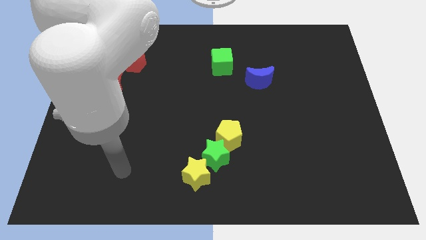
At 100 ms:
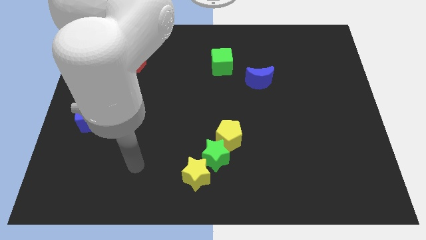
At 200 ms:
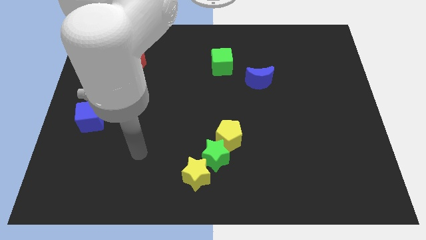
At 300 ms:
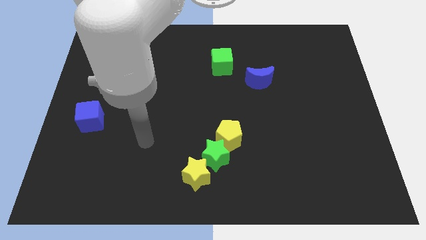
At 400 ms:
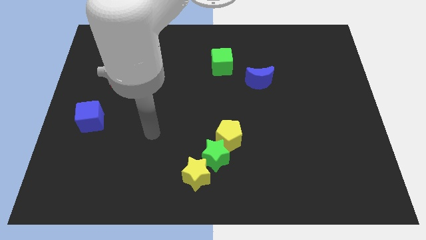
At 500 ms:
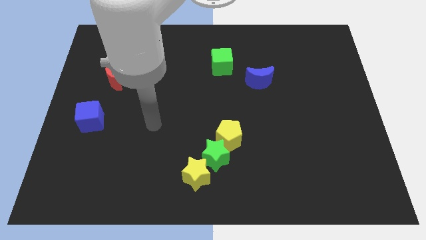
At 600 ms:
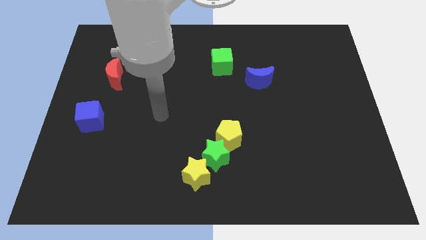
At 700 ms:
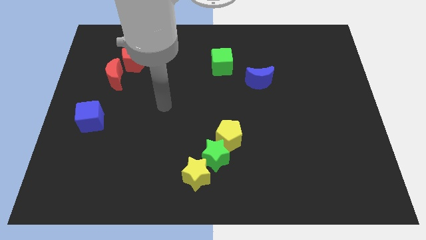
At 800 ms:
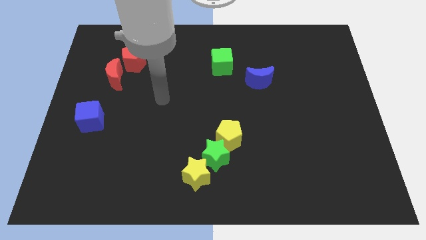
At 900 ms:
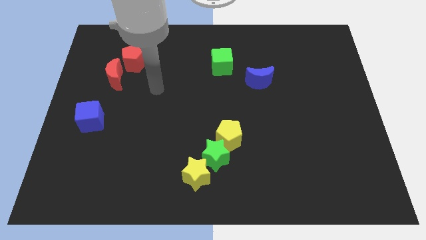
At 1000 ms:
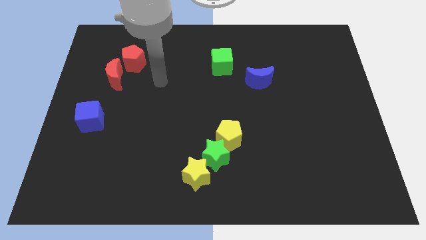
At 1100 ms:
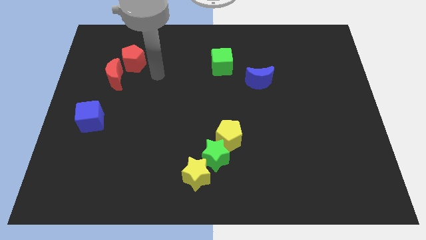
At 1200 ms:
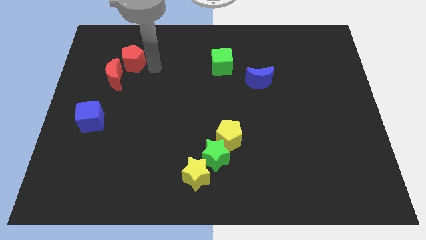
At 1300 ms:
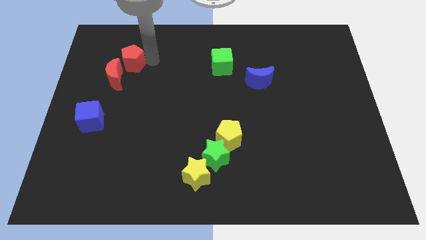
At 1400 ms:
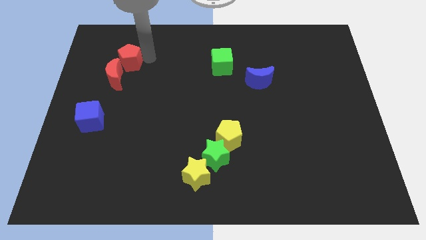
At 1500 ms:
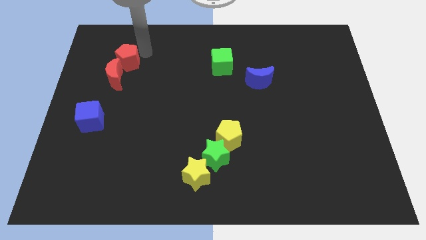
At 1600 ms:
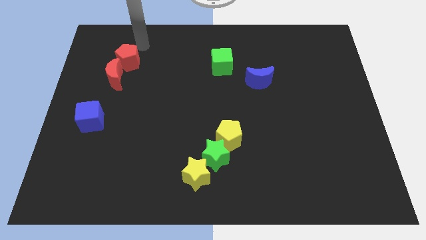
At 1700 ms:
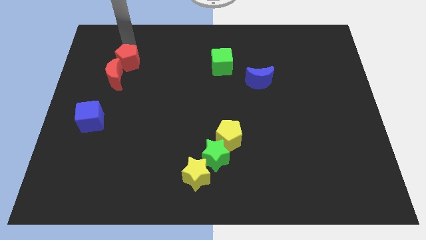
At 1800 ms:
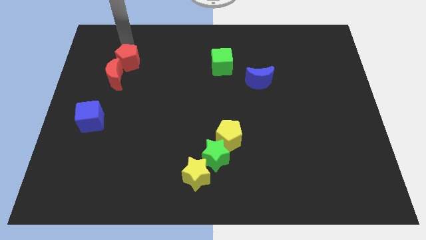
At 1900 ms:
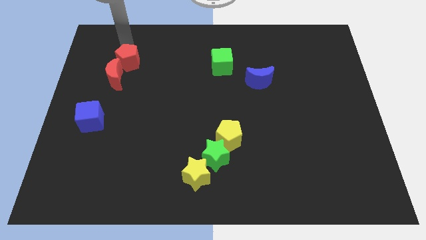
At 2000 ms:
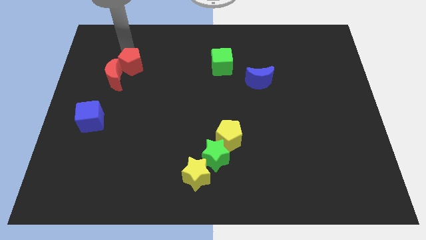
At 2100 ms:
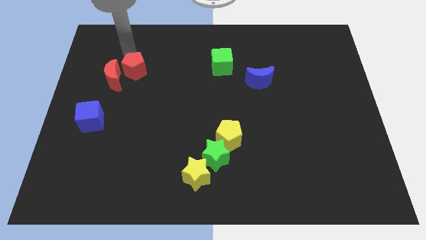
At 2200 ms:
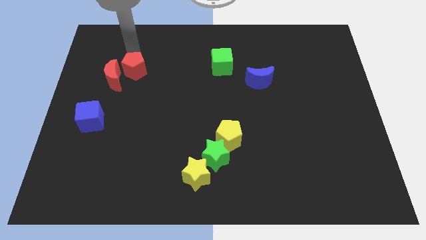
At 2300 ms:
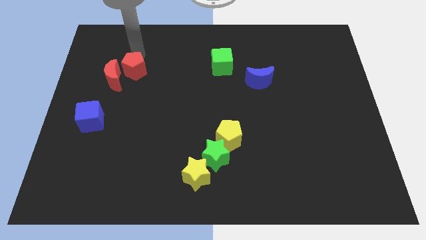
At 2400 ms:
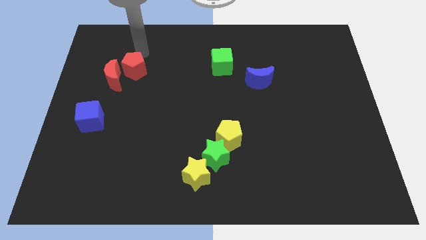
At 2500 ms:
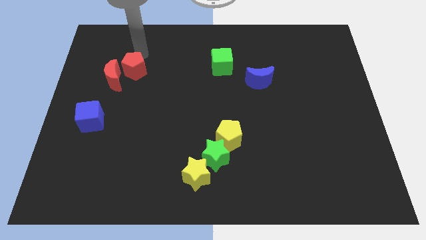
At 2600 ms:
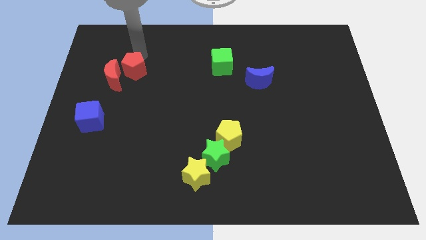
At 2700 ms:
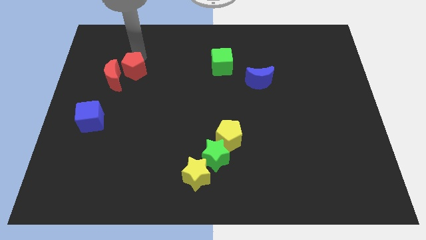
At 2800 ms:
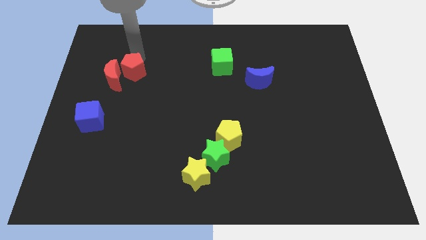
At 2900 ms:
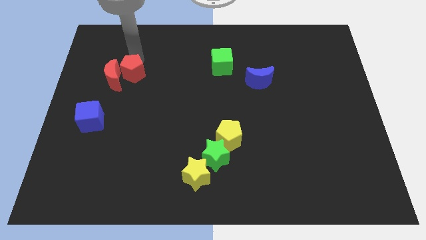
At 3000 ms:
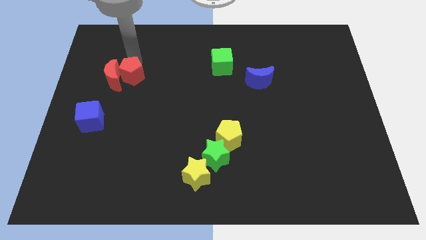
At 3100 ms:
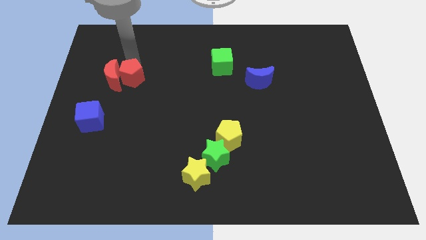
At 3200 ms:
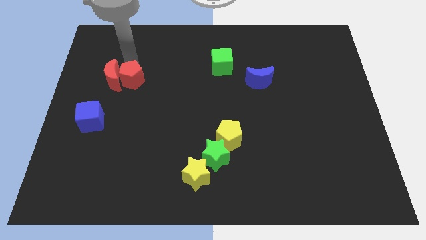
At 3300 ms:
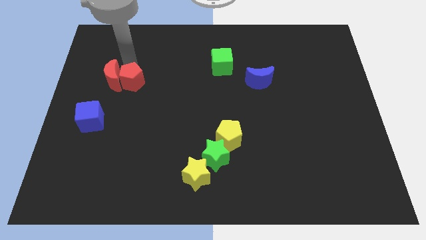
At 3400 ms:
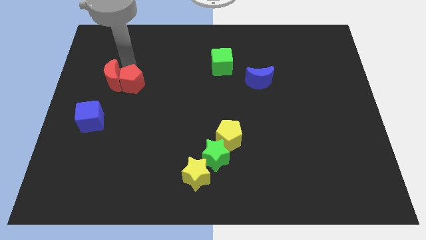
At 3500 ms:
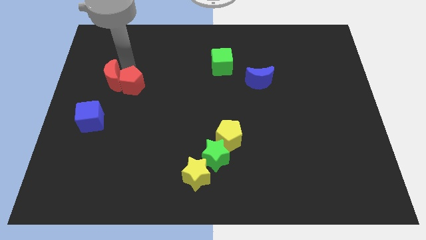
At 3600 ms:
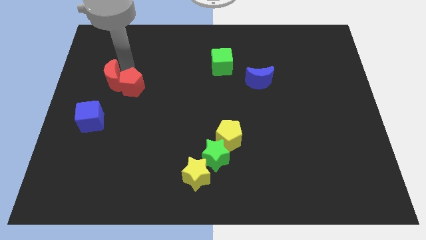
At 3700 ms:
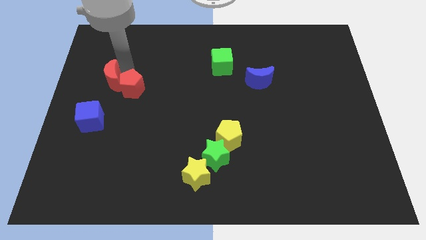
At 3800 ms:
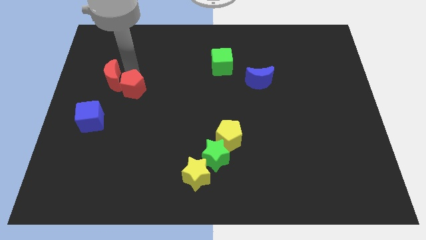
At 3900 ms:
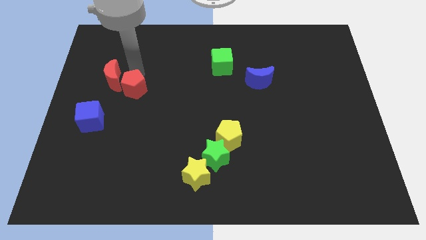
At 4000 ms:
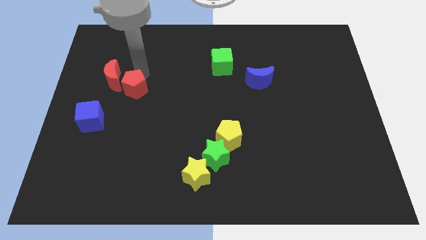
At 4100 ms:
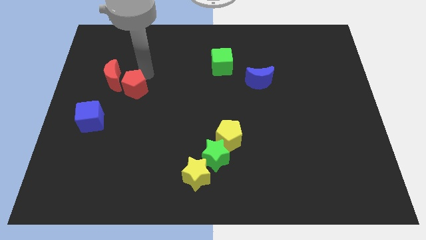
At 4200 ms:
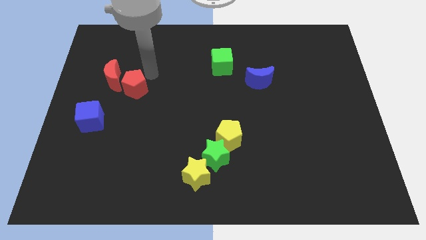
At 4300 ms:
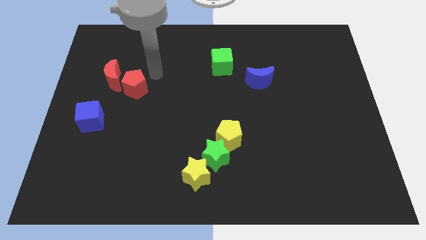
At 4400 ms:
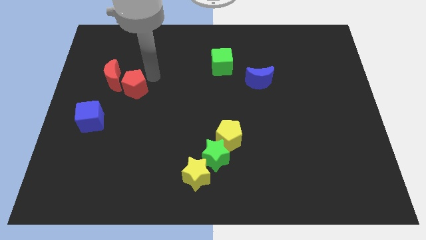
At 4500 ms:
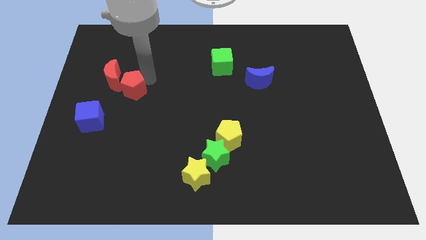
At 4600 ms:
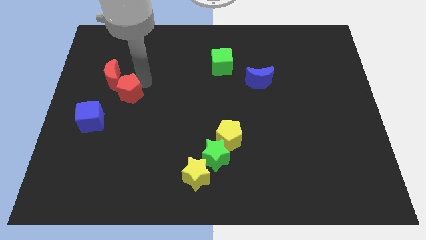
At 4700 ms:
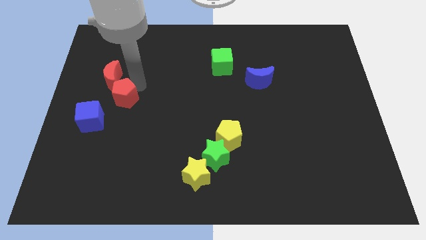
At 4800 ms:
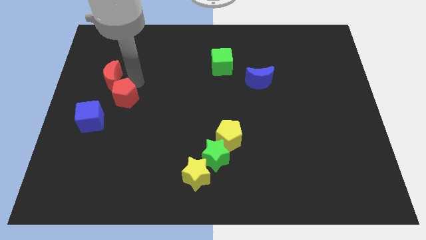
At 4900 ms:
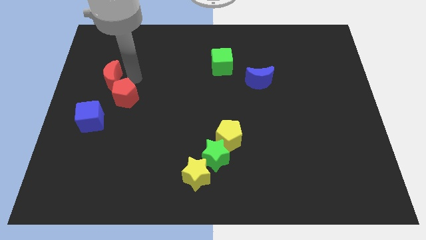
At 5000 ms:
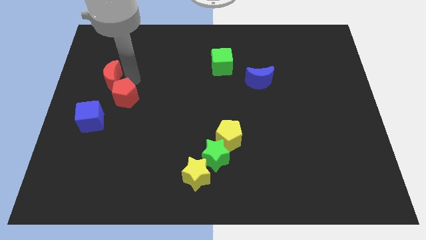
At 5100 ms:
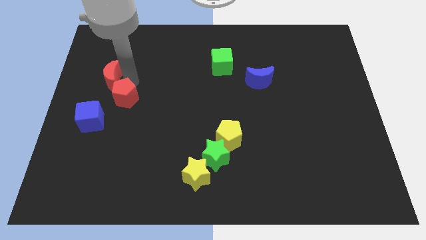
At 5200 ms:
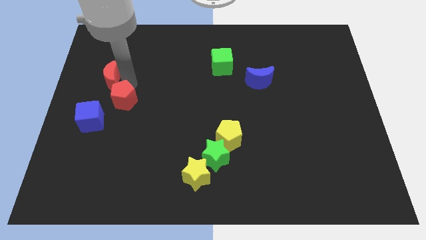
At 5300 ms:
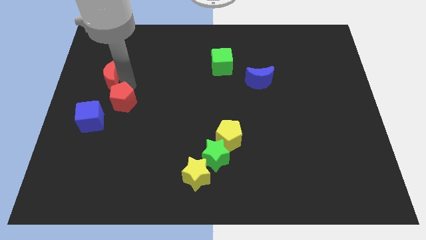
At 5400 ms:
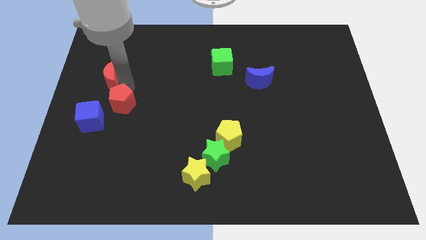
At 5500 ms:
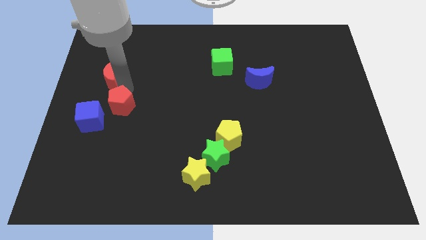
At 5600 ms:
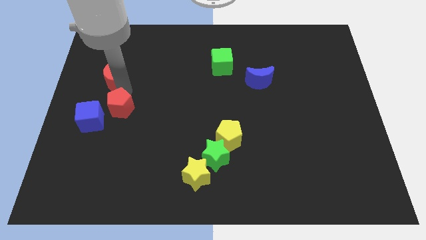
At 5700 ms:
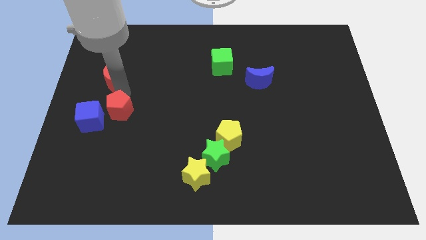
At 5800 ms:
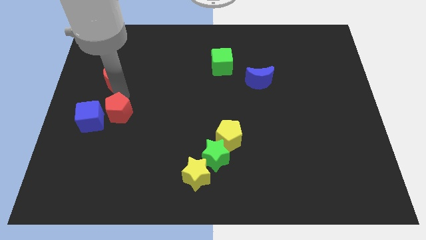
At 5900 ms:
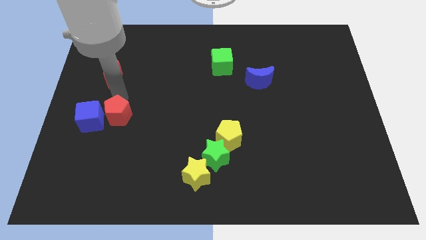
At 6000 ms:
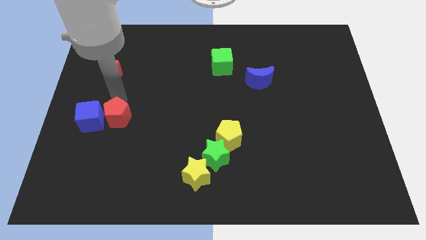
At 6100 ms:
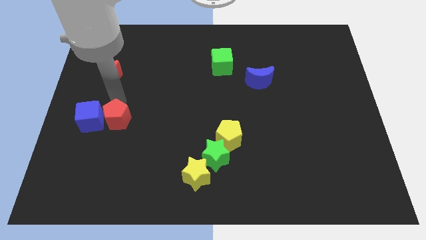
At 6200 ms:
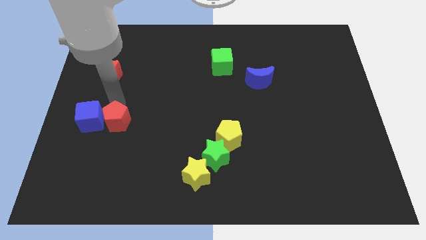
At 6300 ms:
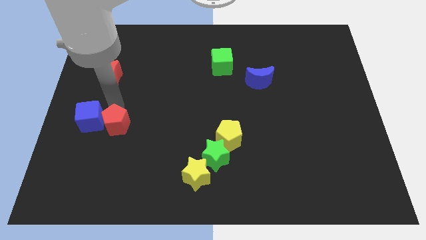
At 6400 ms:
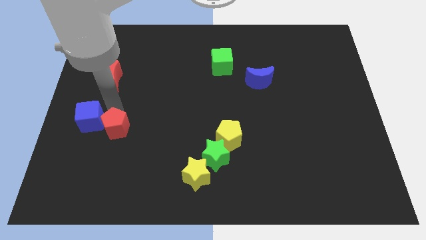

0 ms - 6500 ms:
slide the red pentagon down

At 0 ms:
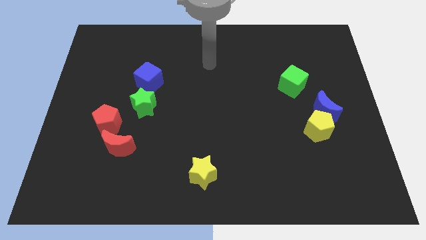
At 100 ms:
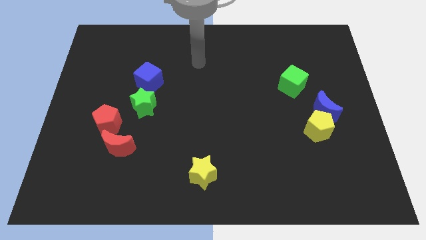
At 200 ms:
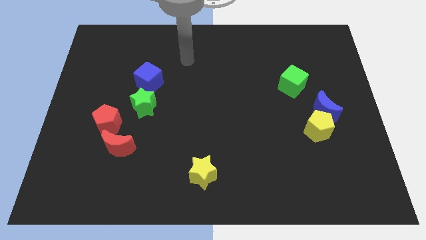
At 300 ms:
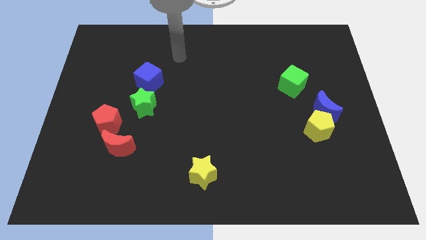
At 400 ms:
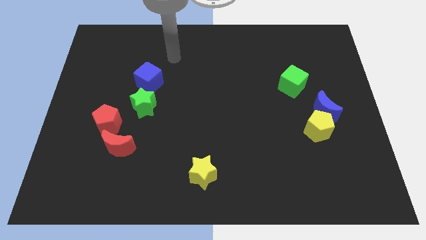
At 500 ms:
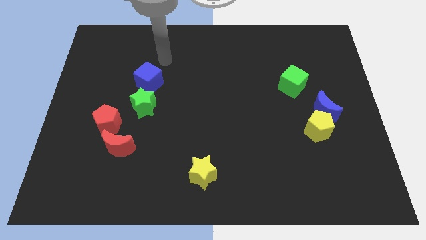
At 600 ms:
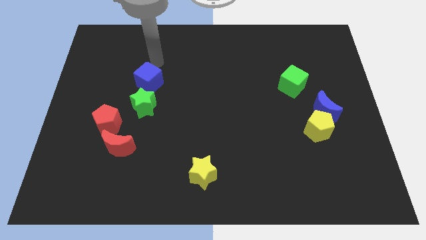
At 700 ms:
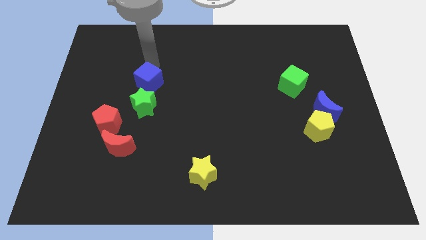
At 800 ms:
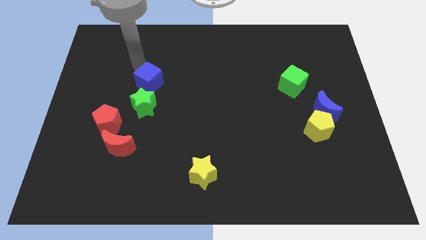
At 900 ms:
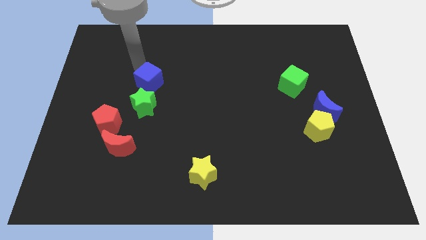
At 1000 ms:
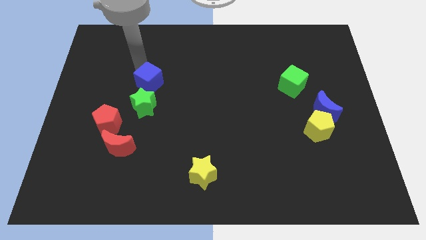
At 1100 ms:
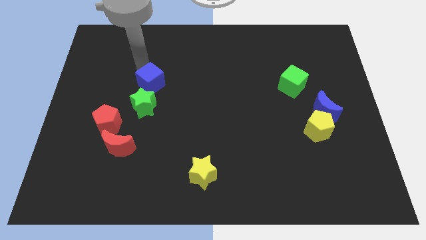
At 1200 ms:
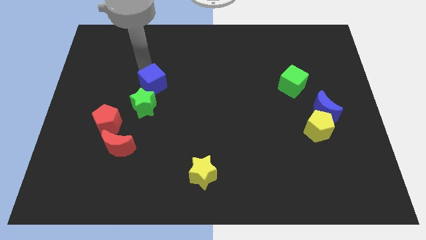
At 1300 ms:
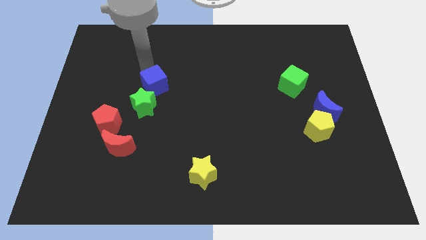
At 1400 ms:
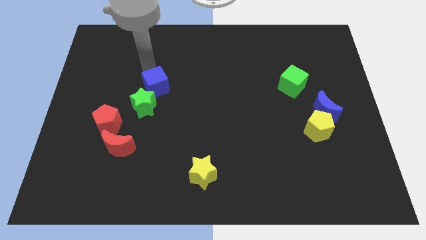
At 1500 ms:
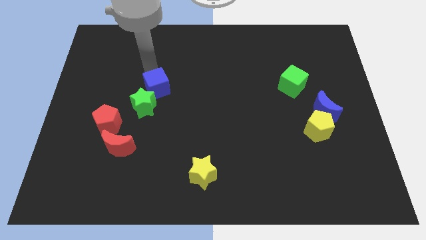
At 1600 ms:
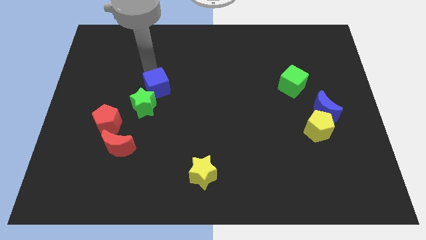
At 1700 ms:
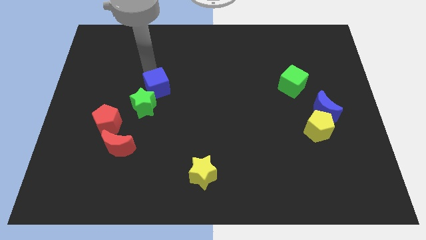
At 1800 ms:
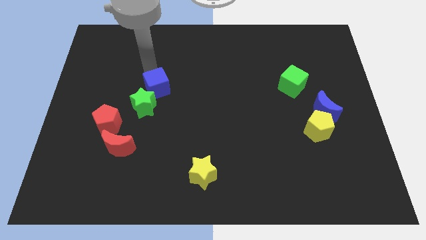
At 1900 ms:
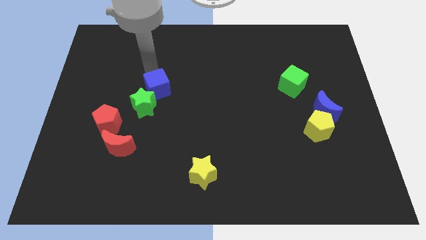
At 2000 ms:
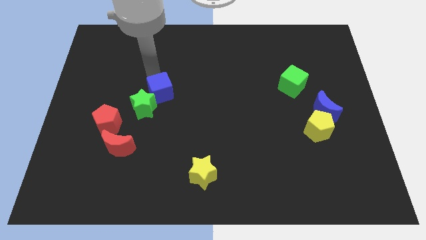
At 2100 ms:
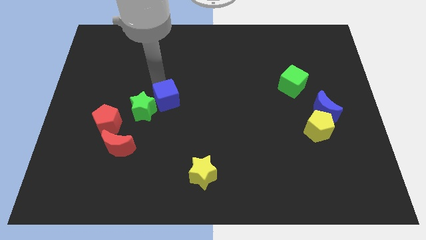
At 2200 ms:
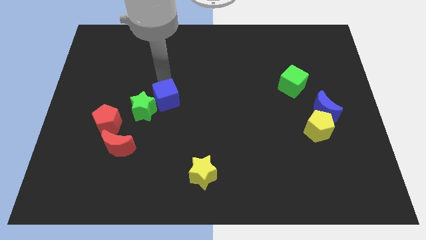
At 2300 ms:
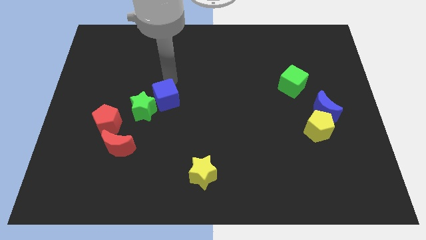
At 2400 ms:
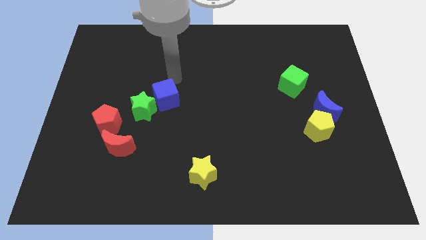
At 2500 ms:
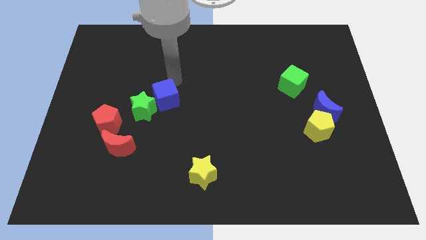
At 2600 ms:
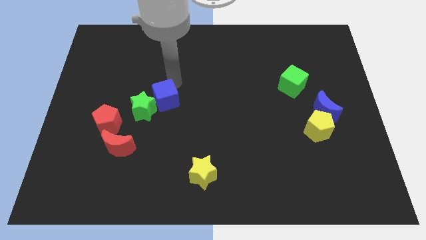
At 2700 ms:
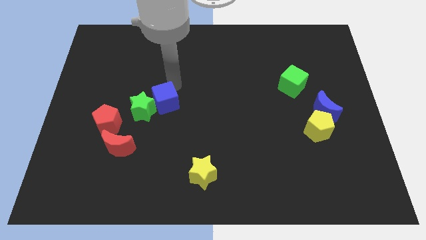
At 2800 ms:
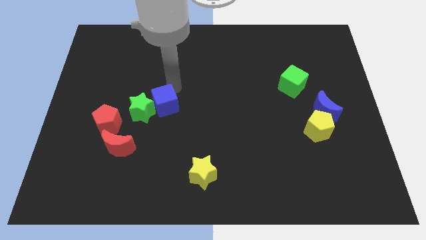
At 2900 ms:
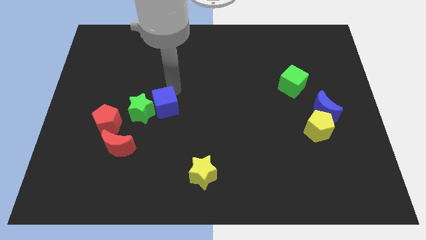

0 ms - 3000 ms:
move the blue cube down somewhat
